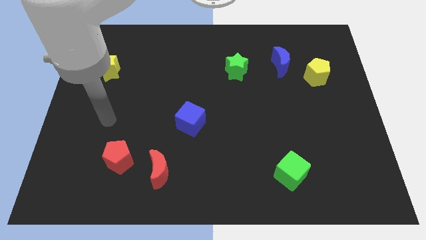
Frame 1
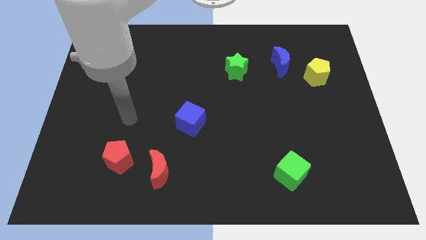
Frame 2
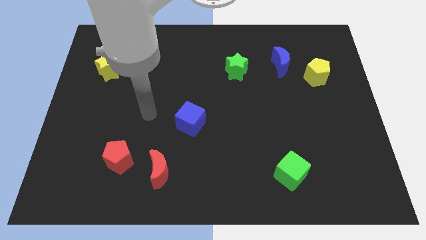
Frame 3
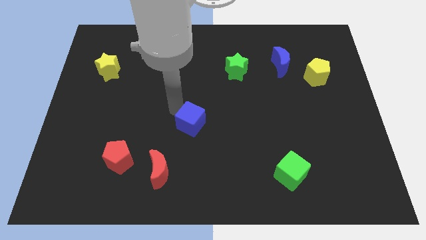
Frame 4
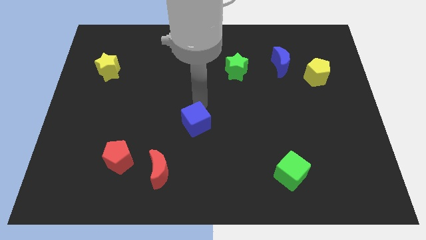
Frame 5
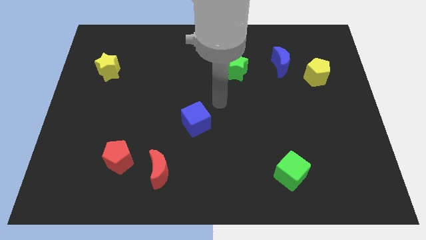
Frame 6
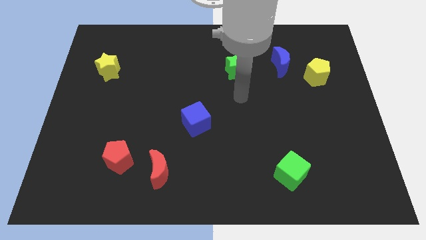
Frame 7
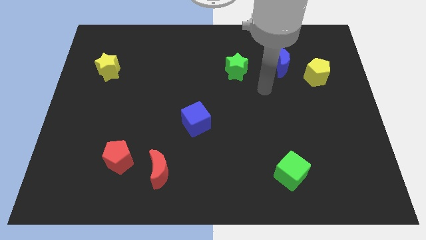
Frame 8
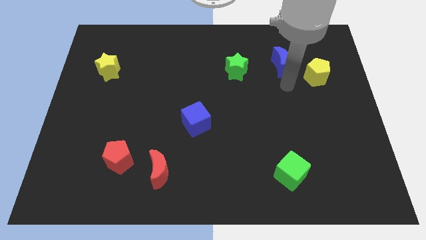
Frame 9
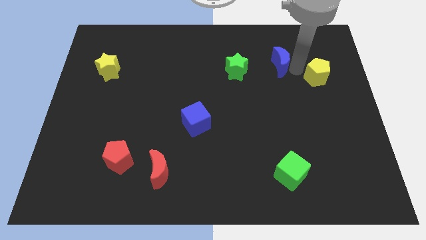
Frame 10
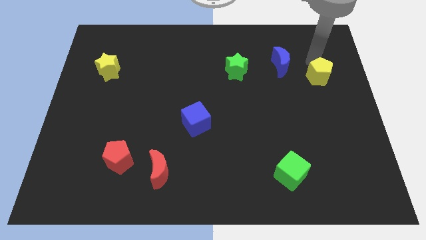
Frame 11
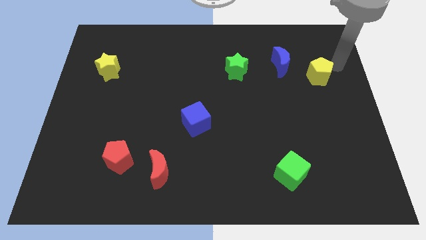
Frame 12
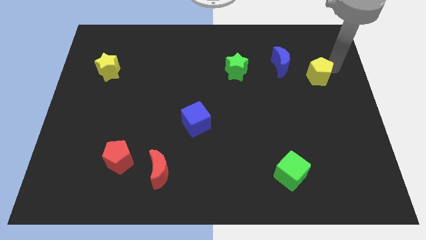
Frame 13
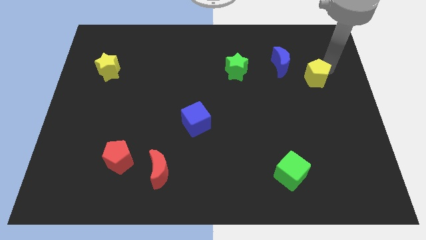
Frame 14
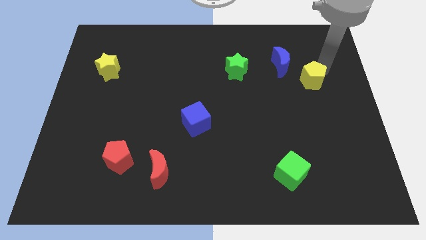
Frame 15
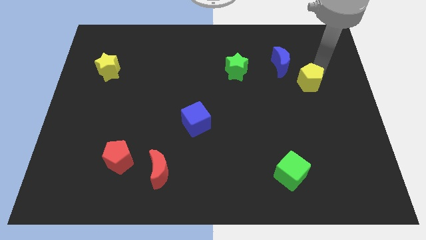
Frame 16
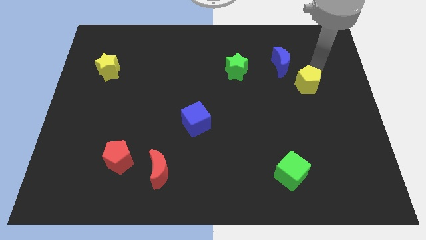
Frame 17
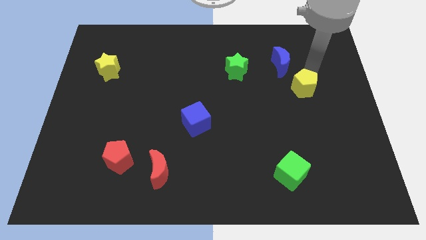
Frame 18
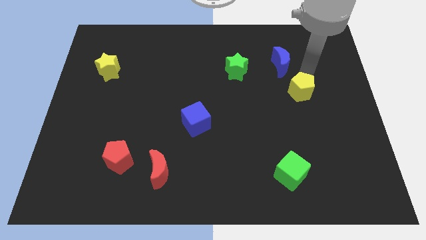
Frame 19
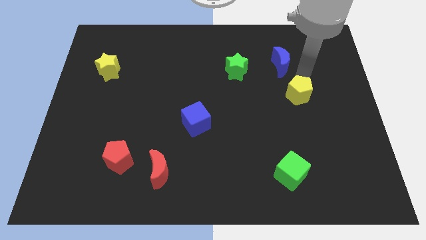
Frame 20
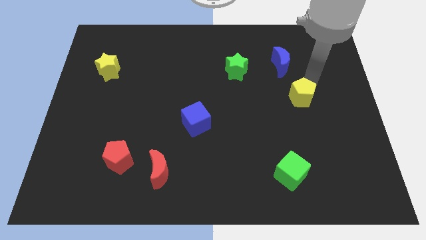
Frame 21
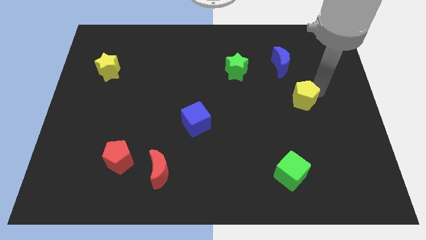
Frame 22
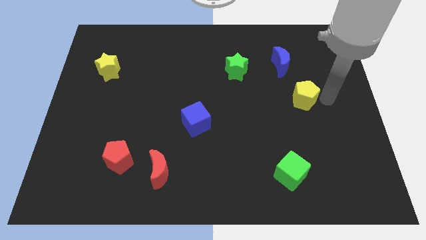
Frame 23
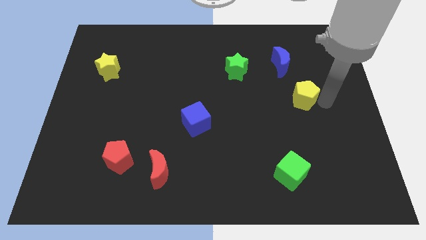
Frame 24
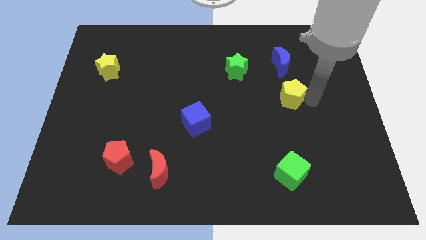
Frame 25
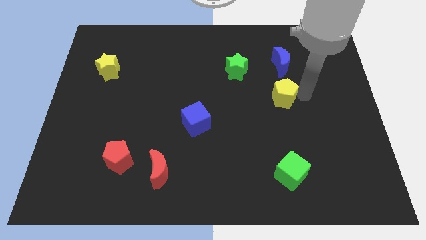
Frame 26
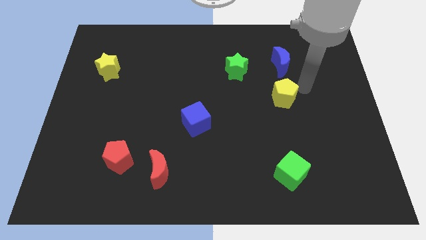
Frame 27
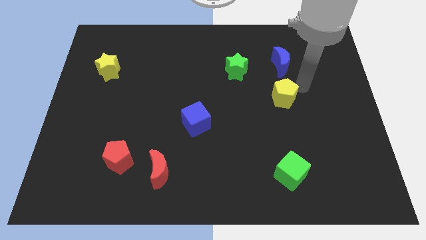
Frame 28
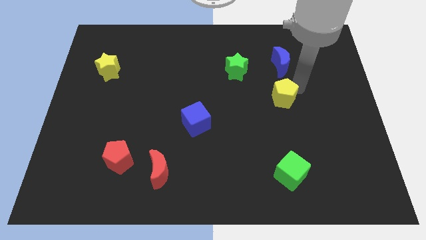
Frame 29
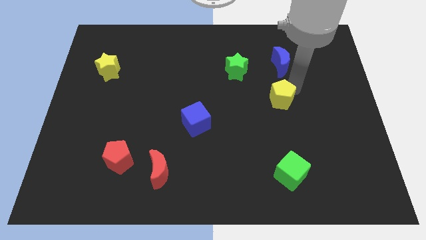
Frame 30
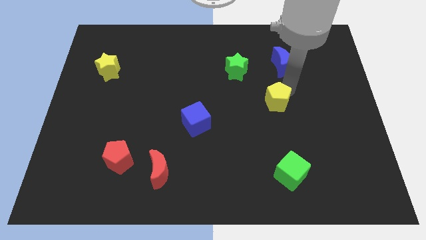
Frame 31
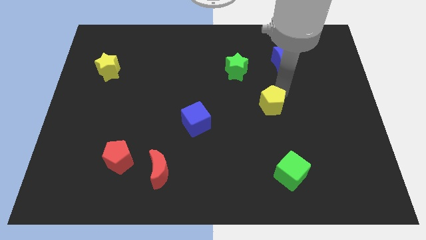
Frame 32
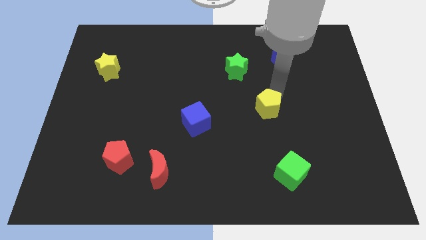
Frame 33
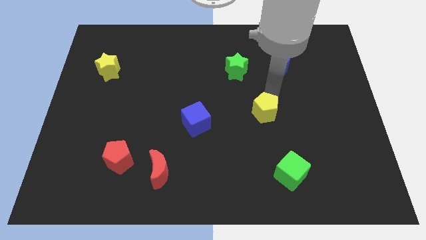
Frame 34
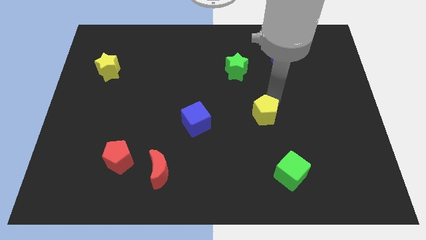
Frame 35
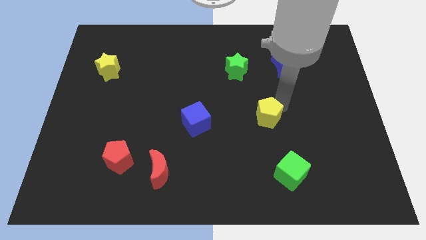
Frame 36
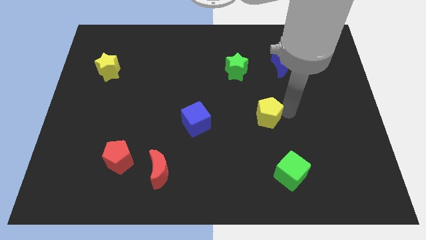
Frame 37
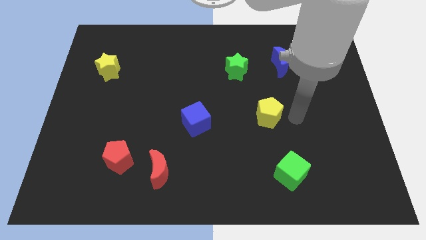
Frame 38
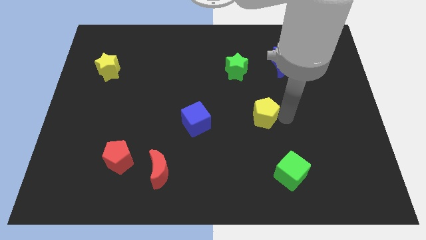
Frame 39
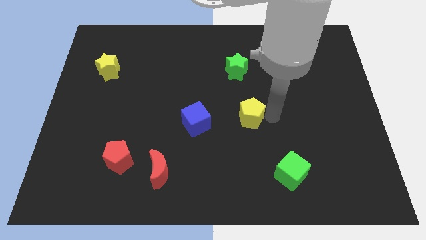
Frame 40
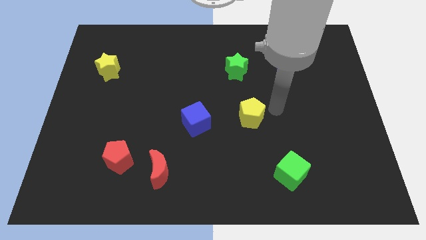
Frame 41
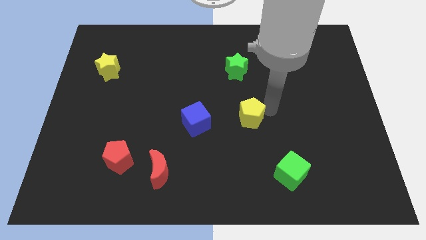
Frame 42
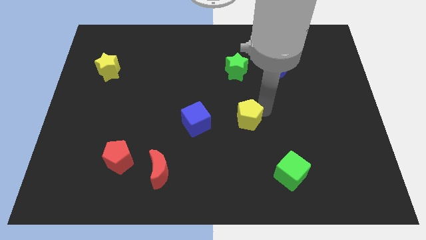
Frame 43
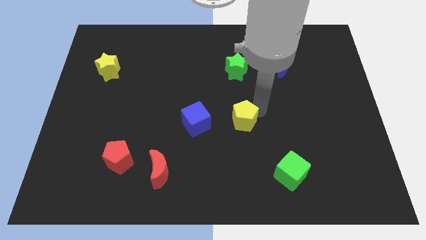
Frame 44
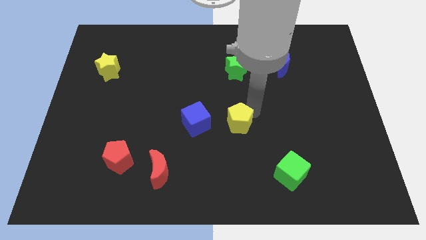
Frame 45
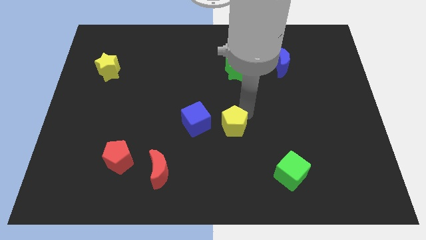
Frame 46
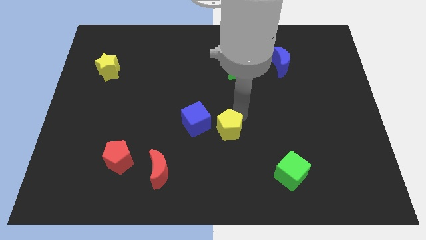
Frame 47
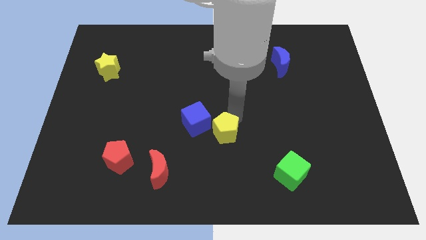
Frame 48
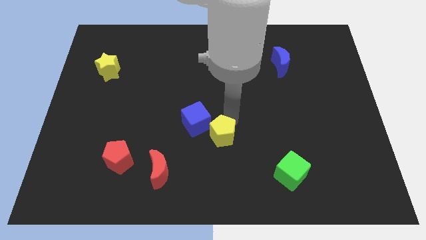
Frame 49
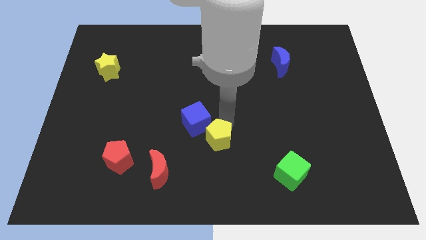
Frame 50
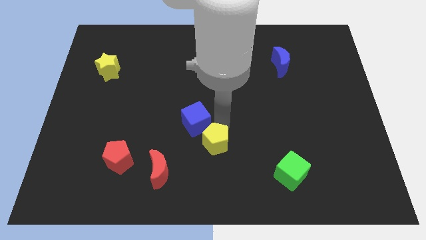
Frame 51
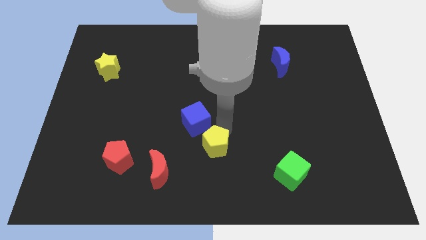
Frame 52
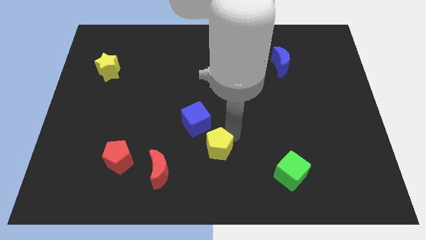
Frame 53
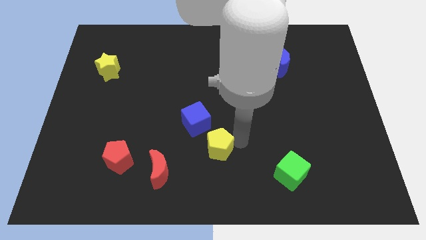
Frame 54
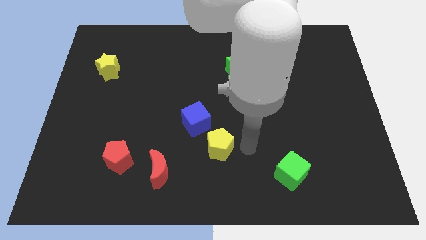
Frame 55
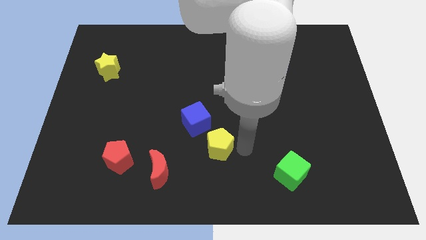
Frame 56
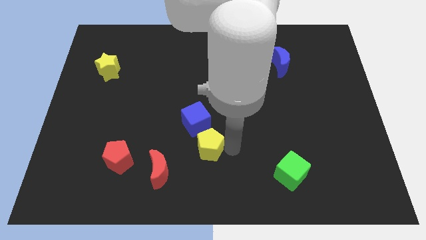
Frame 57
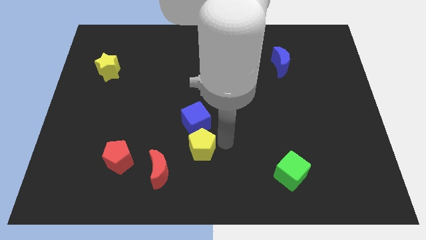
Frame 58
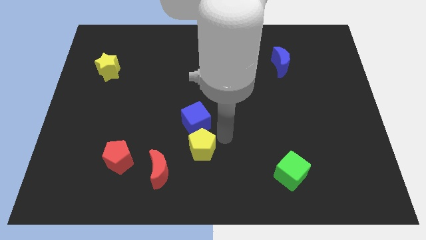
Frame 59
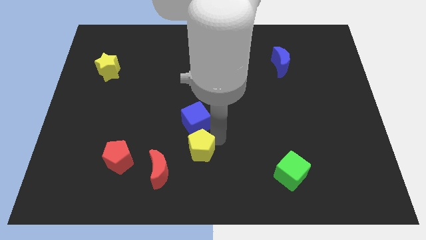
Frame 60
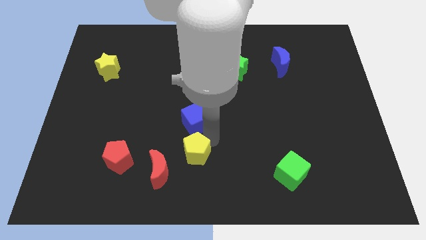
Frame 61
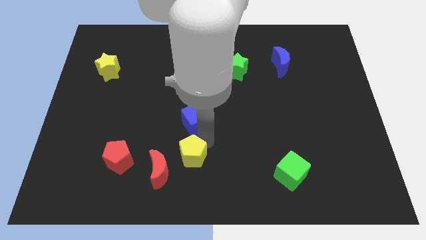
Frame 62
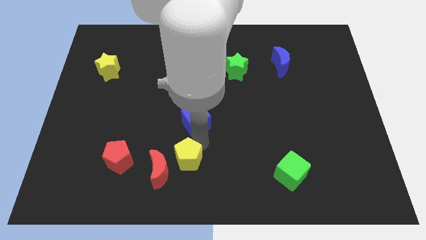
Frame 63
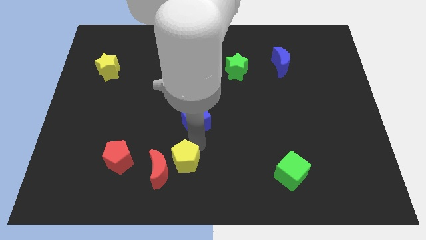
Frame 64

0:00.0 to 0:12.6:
push the yellow pentagon towards the red moon

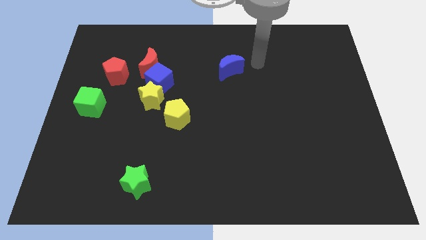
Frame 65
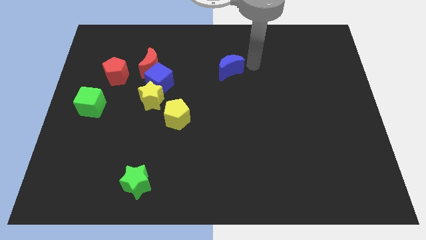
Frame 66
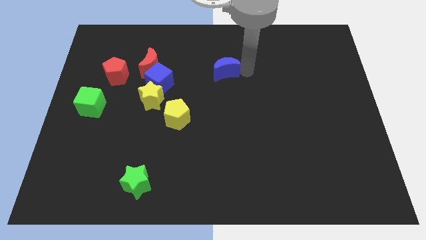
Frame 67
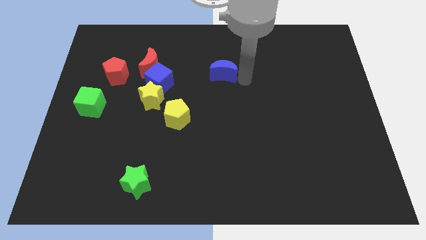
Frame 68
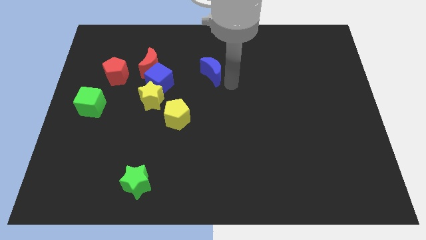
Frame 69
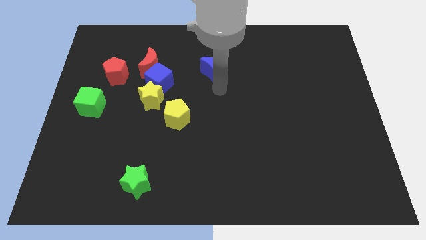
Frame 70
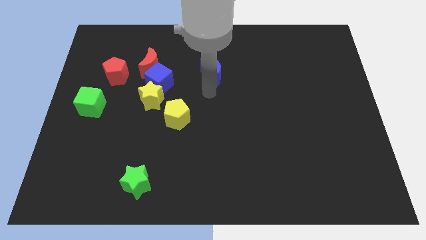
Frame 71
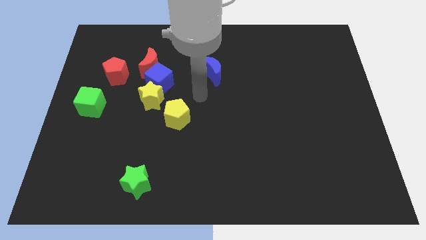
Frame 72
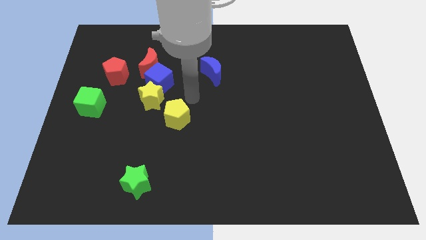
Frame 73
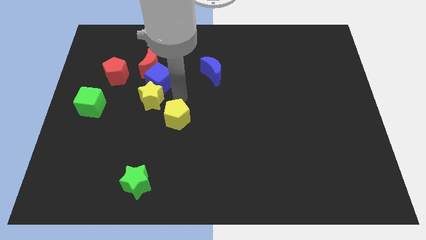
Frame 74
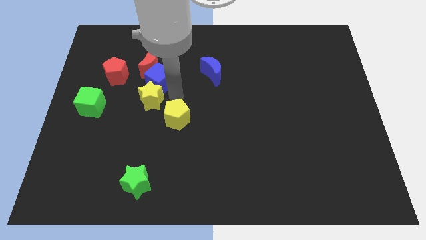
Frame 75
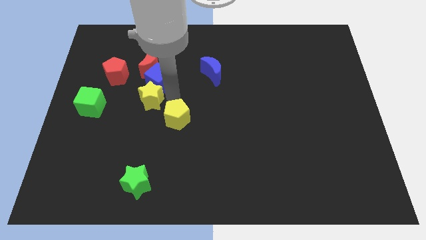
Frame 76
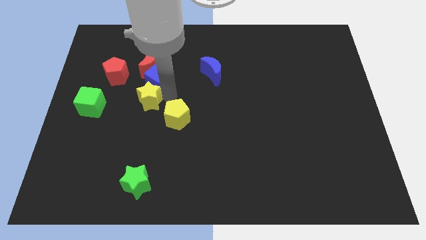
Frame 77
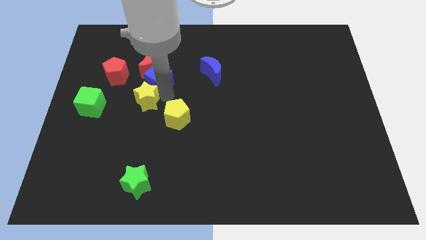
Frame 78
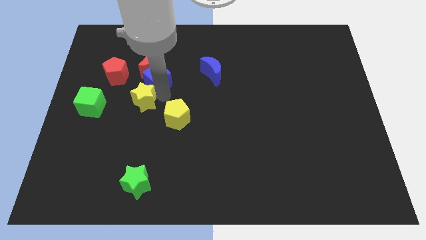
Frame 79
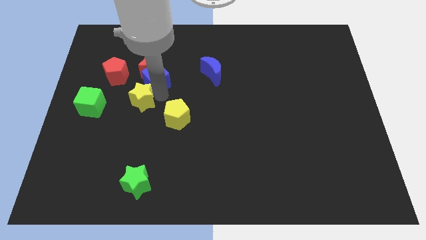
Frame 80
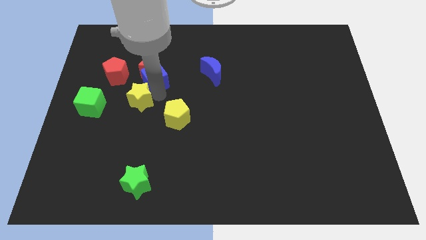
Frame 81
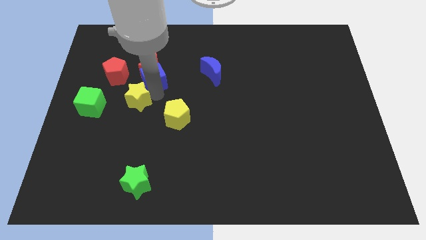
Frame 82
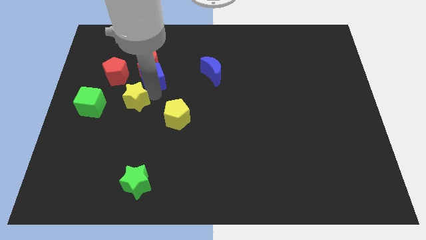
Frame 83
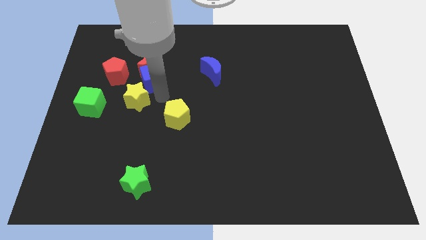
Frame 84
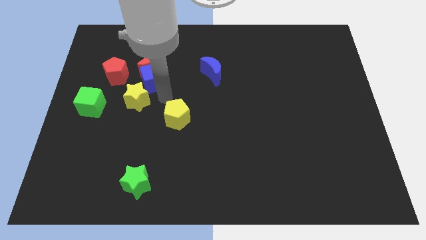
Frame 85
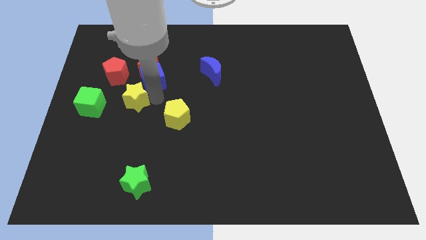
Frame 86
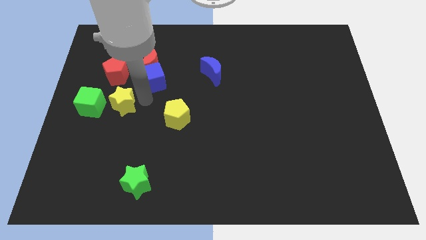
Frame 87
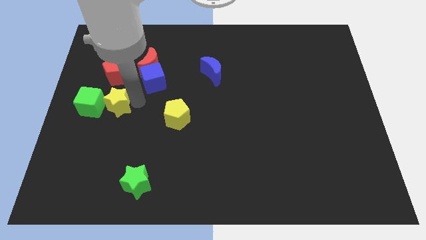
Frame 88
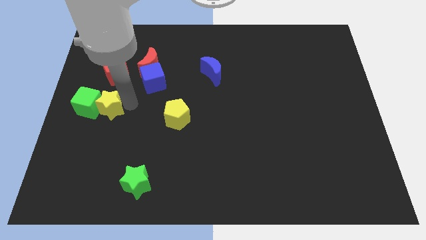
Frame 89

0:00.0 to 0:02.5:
put the yellow star to the green cube
